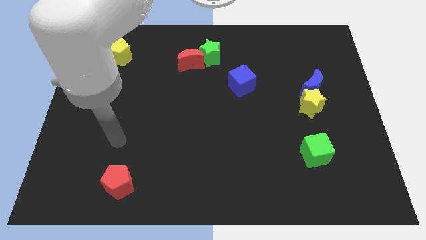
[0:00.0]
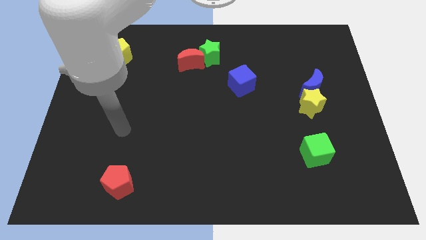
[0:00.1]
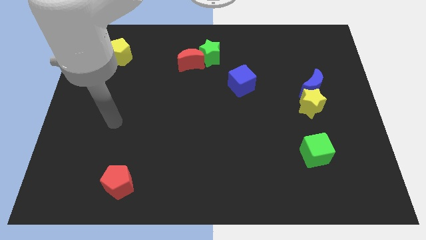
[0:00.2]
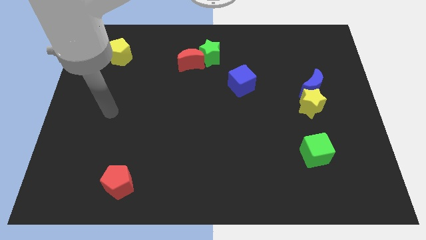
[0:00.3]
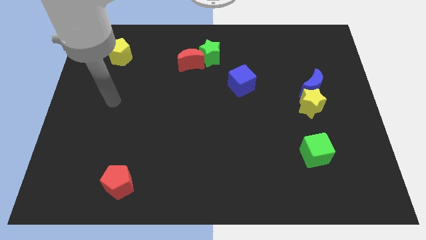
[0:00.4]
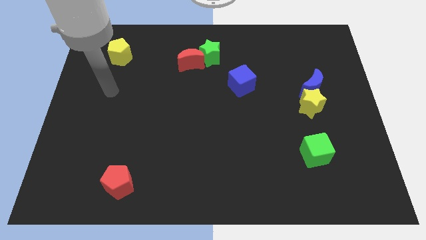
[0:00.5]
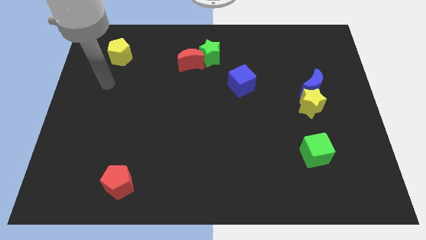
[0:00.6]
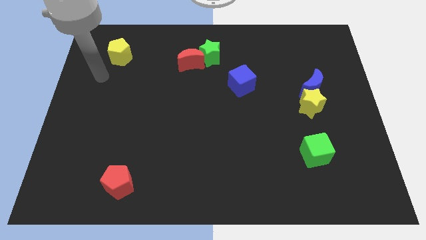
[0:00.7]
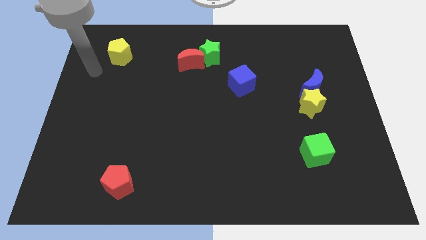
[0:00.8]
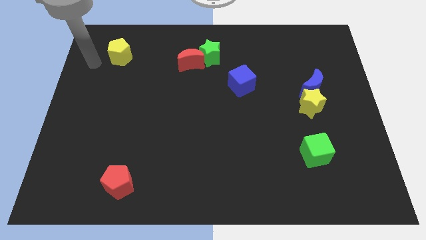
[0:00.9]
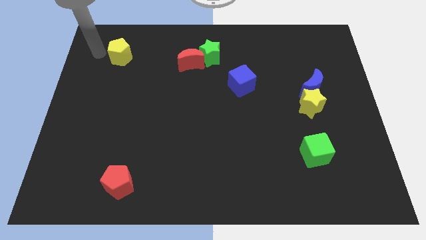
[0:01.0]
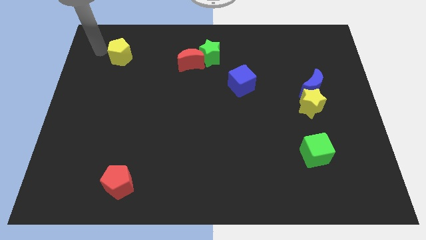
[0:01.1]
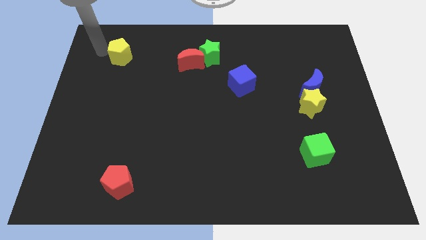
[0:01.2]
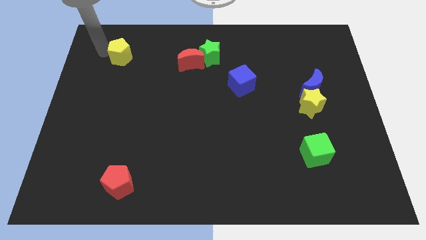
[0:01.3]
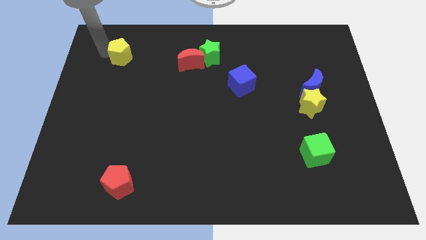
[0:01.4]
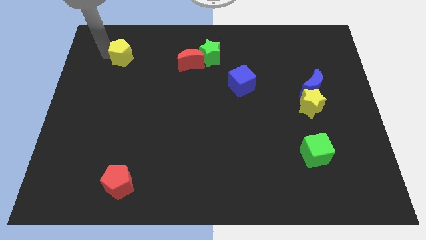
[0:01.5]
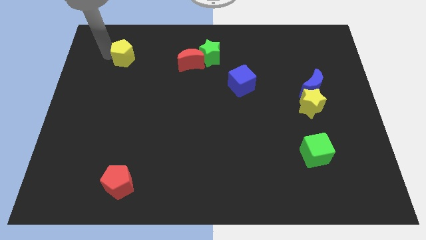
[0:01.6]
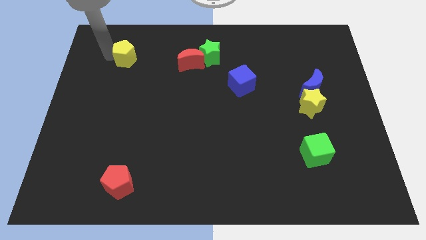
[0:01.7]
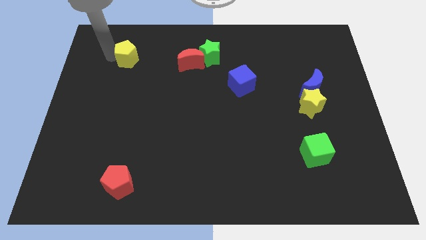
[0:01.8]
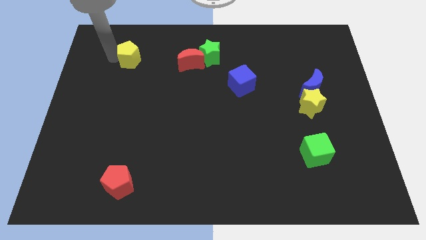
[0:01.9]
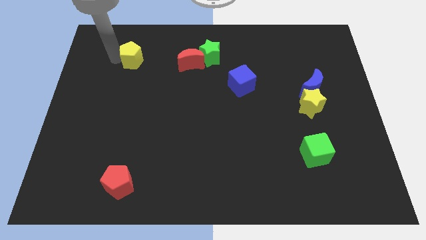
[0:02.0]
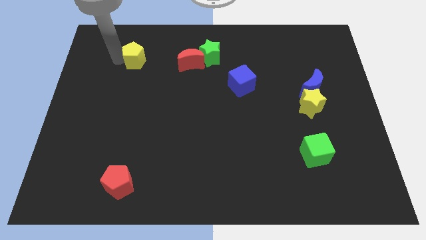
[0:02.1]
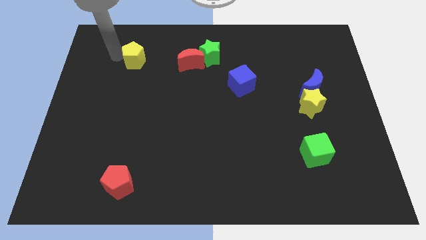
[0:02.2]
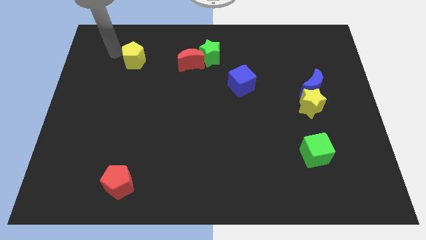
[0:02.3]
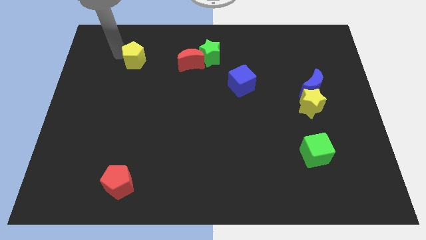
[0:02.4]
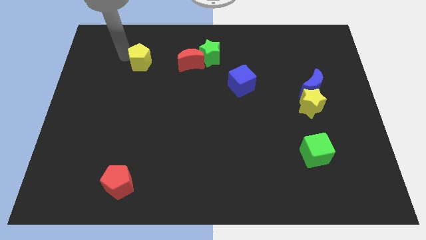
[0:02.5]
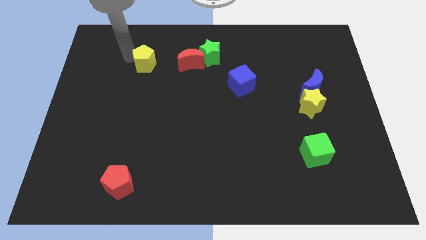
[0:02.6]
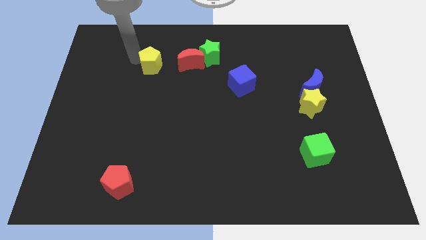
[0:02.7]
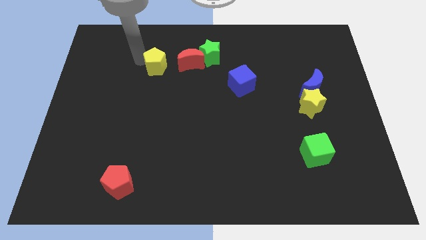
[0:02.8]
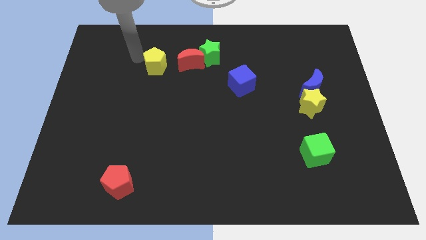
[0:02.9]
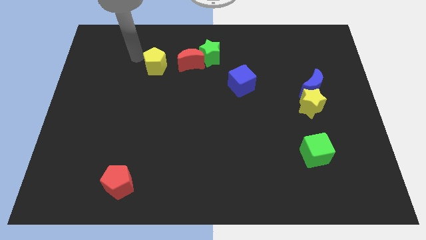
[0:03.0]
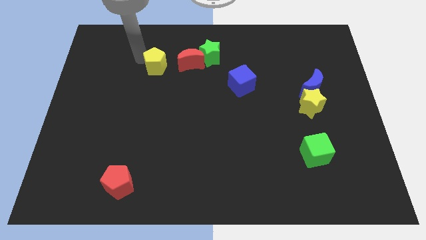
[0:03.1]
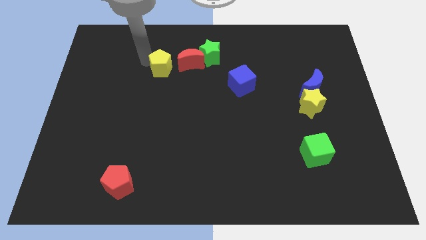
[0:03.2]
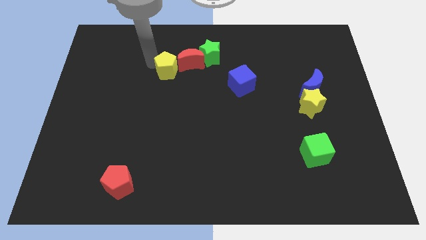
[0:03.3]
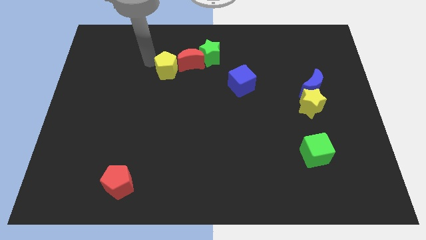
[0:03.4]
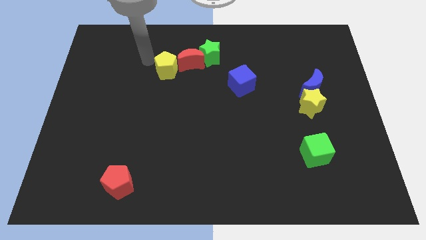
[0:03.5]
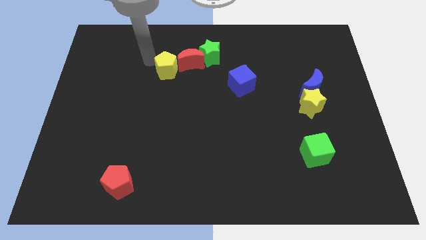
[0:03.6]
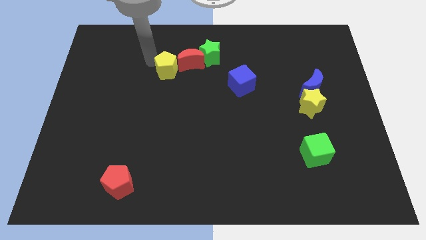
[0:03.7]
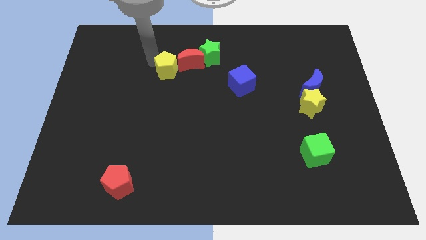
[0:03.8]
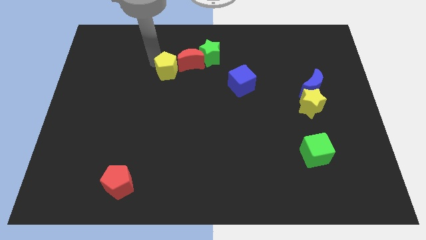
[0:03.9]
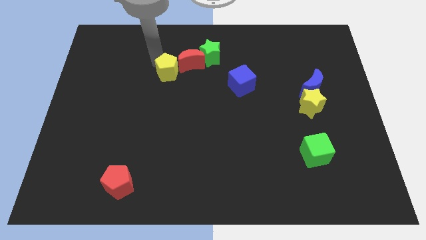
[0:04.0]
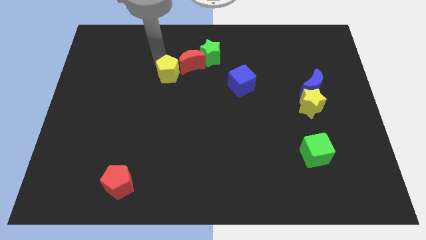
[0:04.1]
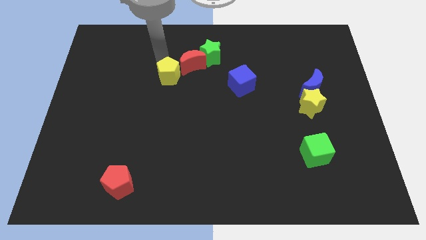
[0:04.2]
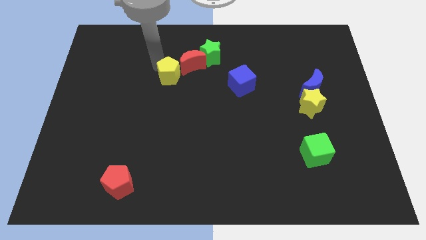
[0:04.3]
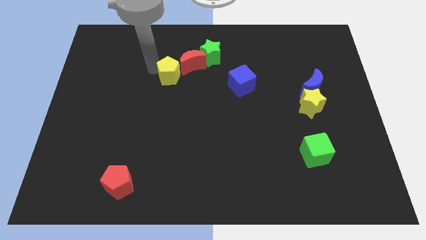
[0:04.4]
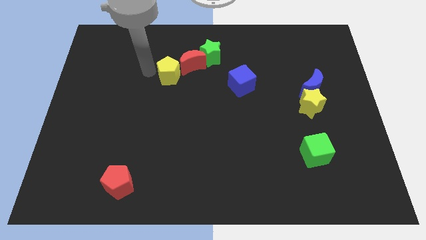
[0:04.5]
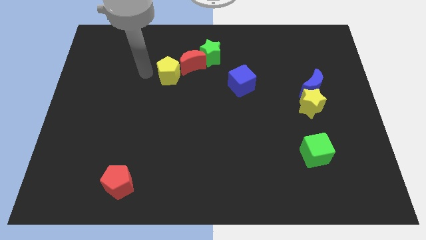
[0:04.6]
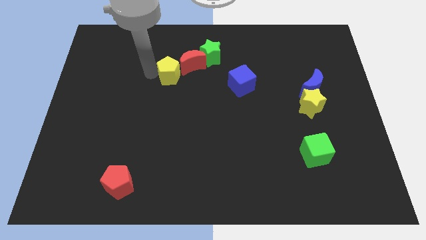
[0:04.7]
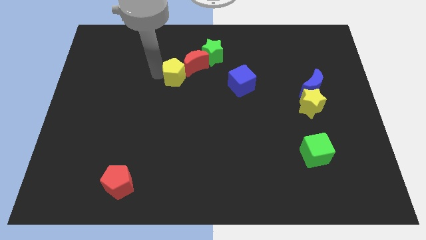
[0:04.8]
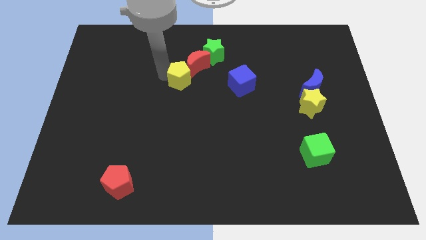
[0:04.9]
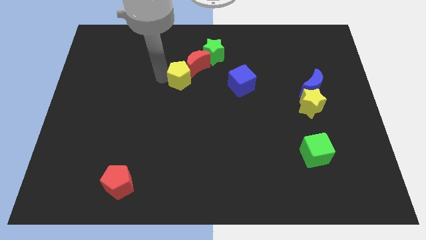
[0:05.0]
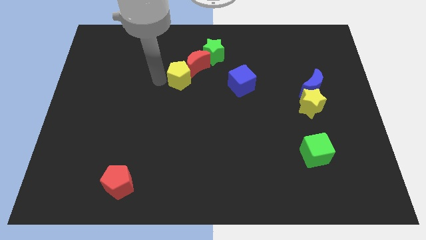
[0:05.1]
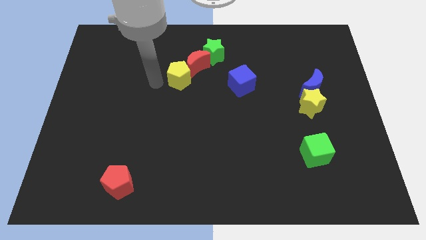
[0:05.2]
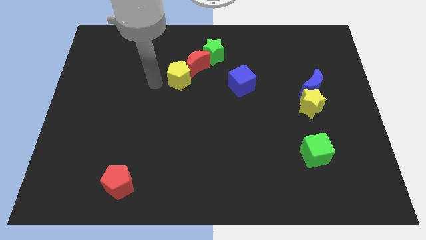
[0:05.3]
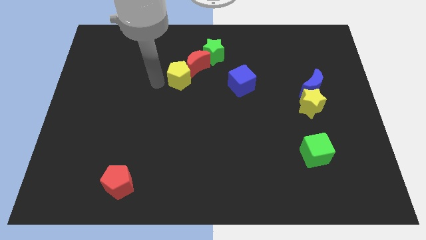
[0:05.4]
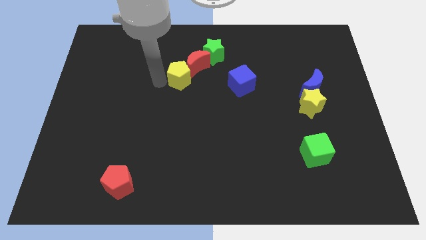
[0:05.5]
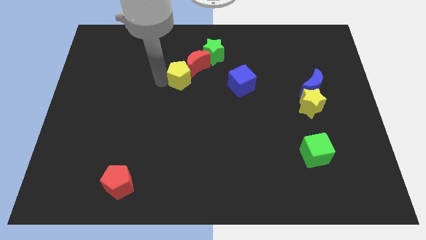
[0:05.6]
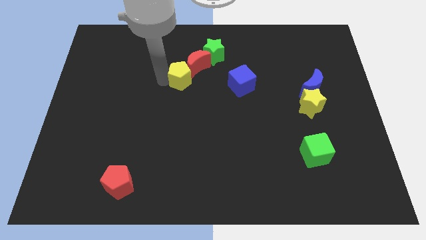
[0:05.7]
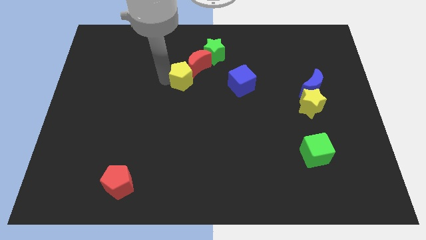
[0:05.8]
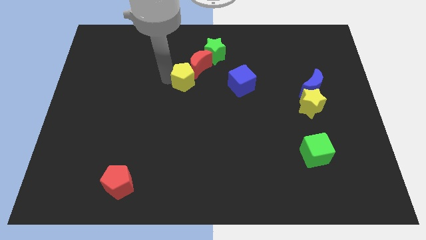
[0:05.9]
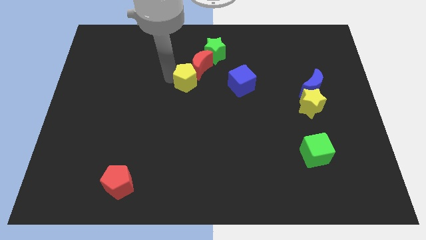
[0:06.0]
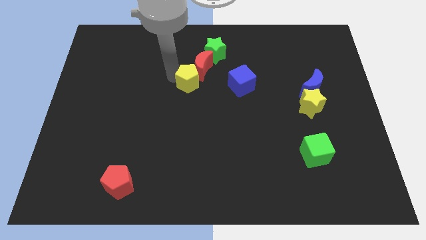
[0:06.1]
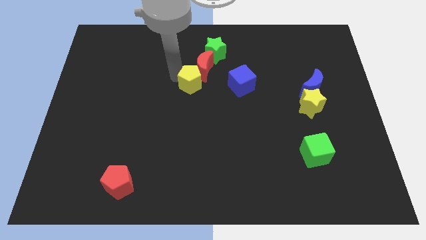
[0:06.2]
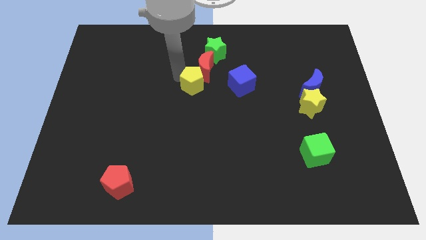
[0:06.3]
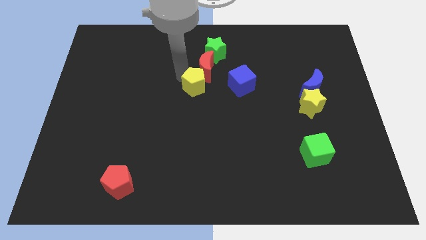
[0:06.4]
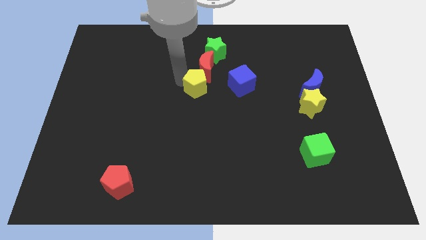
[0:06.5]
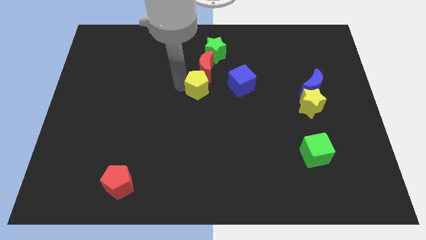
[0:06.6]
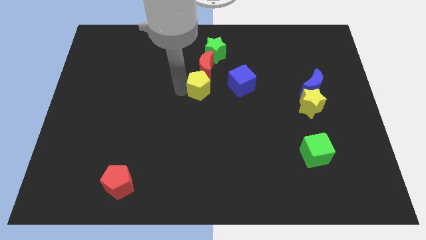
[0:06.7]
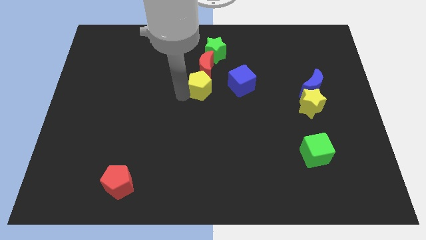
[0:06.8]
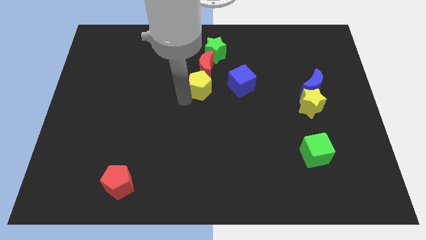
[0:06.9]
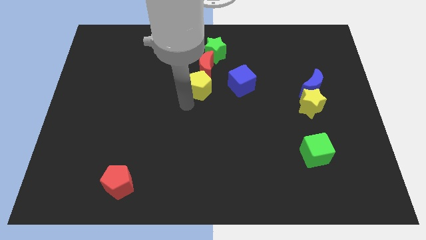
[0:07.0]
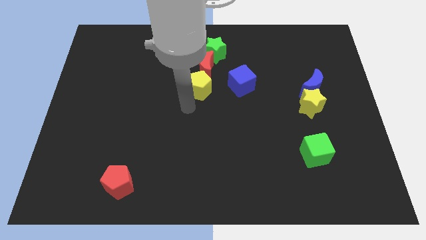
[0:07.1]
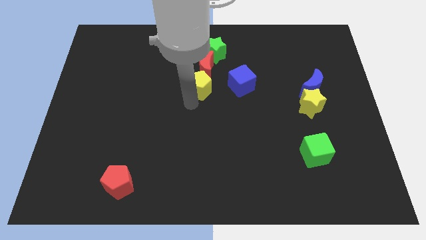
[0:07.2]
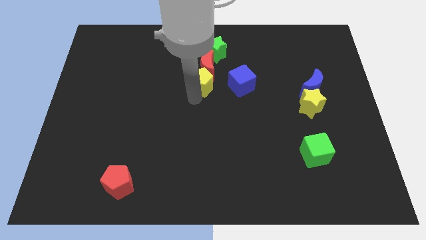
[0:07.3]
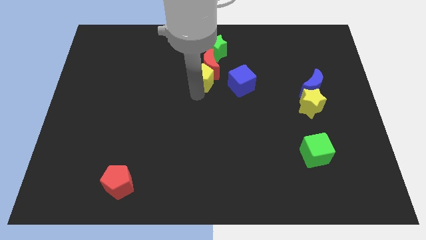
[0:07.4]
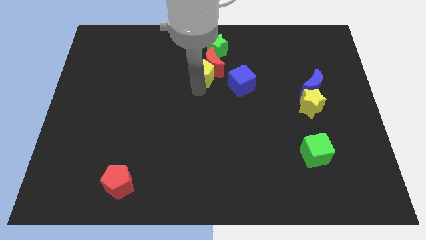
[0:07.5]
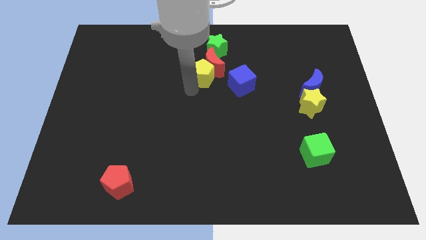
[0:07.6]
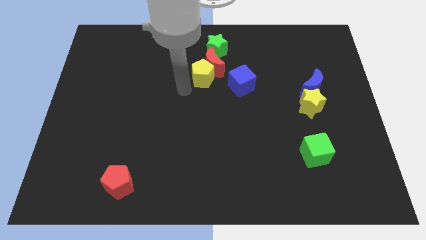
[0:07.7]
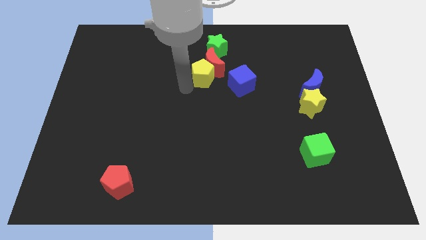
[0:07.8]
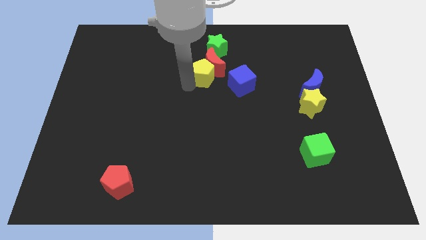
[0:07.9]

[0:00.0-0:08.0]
move the yellow pentagon right
